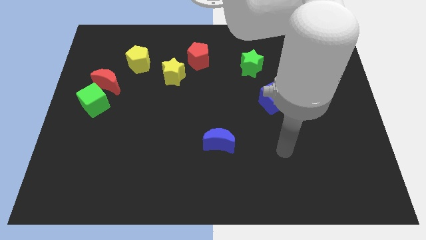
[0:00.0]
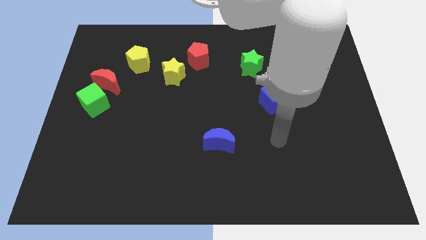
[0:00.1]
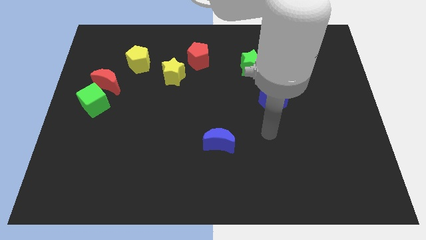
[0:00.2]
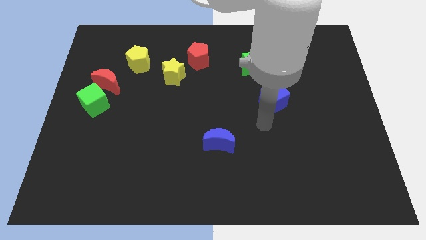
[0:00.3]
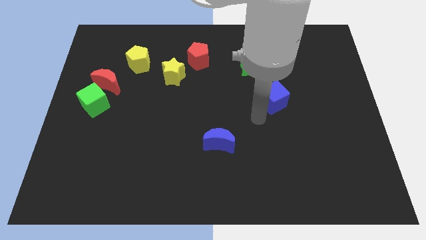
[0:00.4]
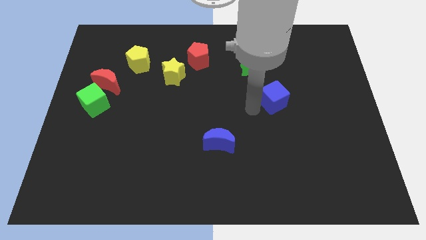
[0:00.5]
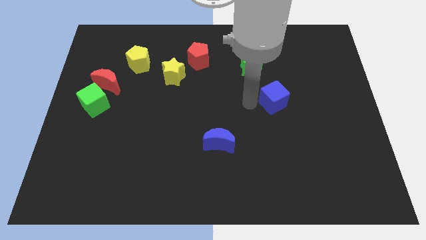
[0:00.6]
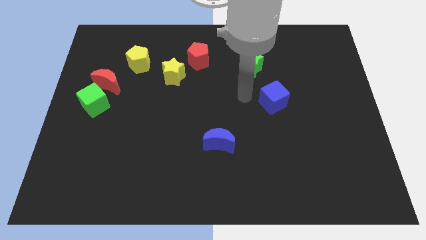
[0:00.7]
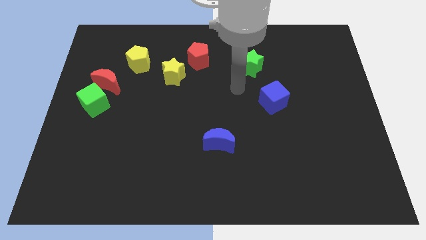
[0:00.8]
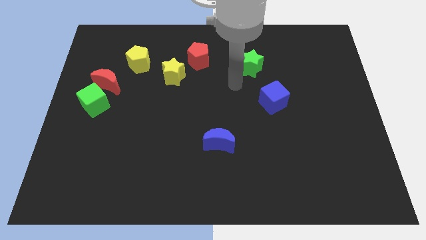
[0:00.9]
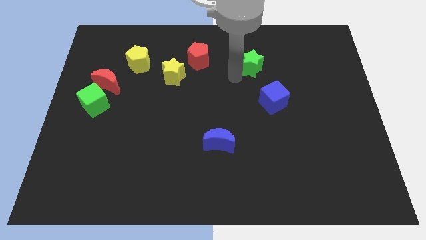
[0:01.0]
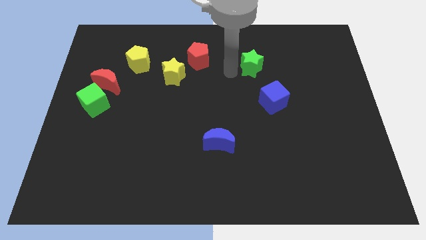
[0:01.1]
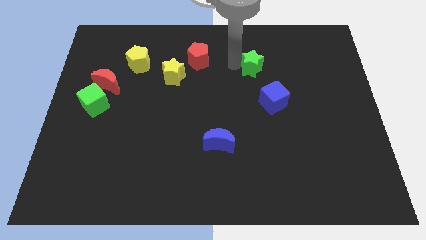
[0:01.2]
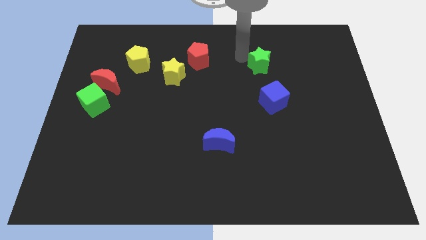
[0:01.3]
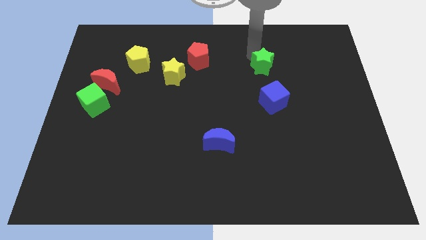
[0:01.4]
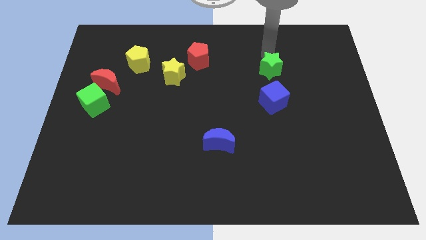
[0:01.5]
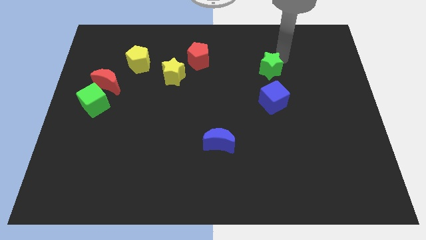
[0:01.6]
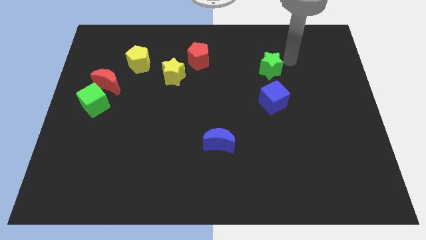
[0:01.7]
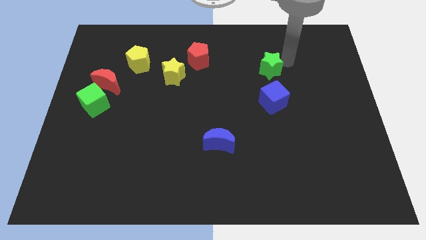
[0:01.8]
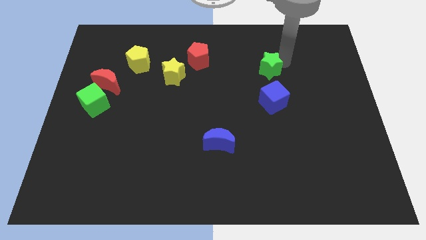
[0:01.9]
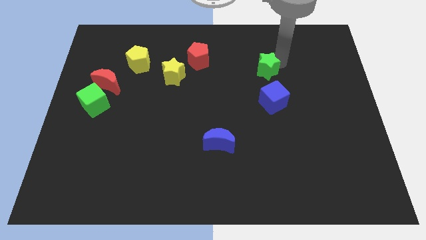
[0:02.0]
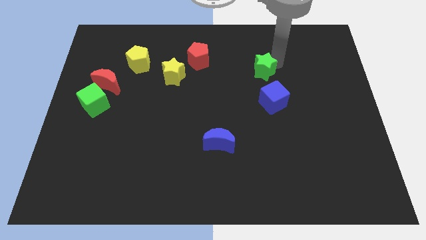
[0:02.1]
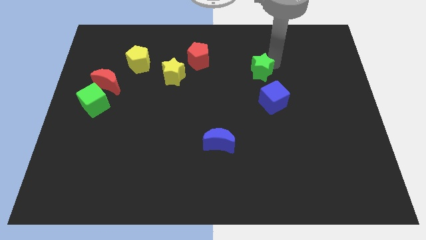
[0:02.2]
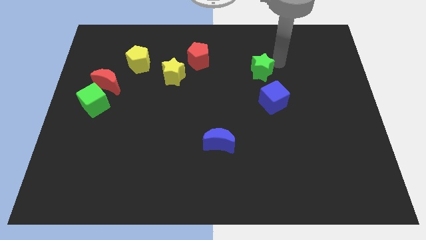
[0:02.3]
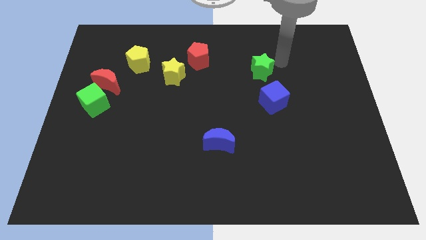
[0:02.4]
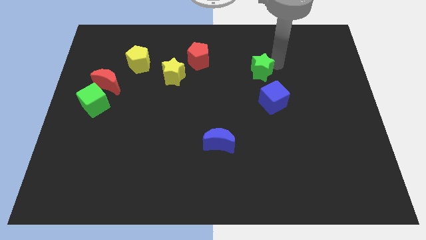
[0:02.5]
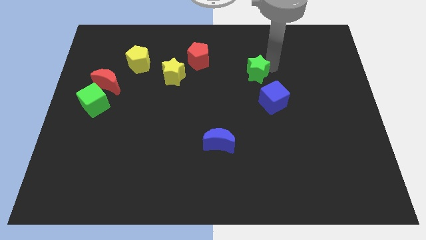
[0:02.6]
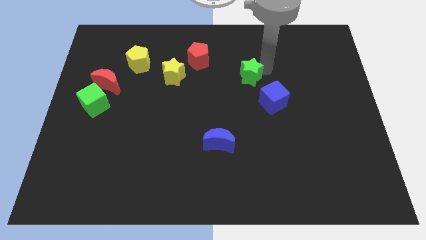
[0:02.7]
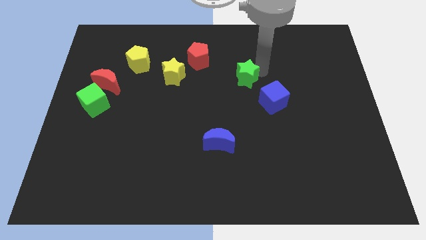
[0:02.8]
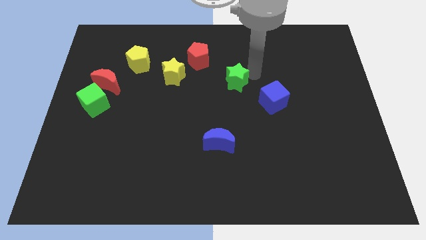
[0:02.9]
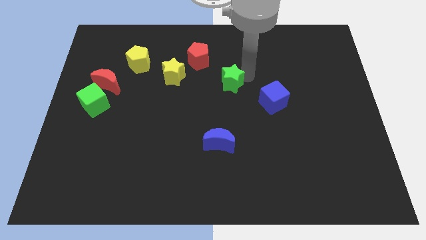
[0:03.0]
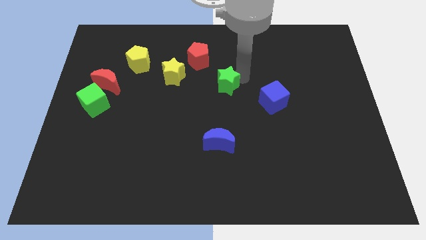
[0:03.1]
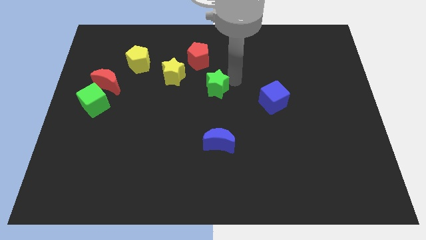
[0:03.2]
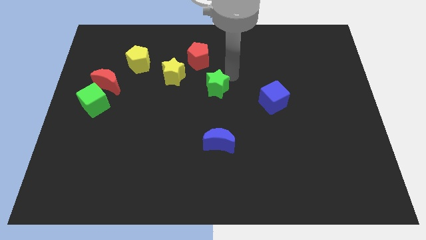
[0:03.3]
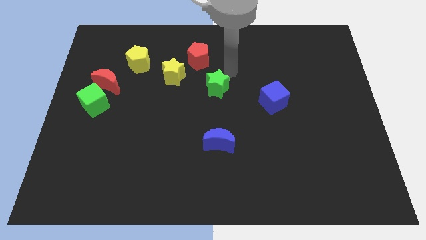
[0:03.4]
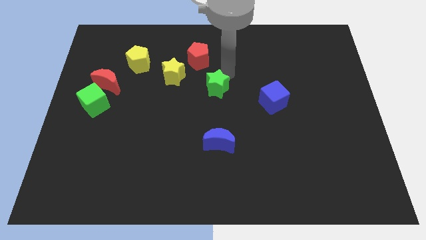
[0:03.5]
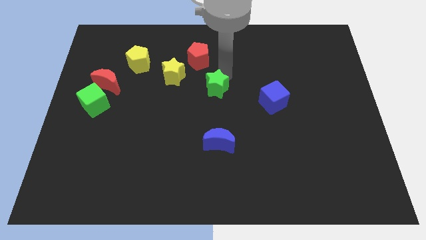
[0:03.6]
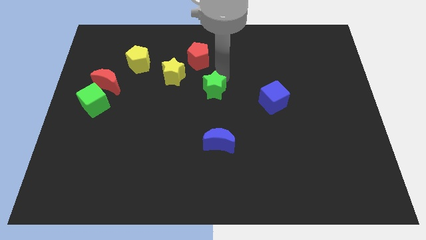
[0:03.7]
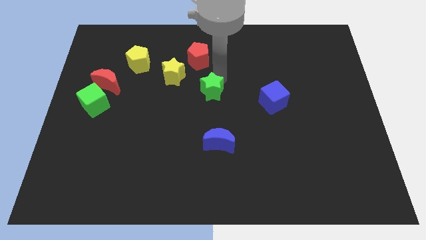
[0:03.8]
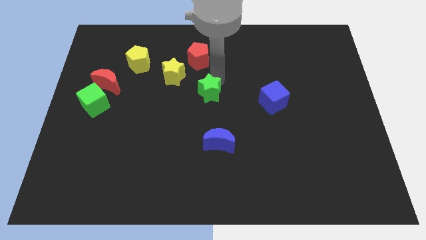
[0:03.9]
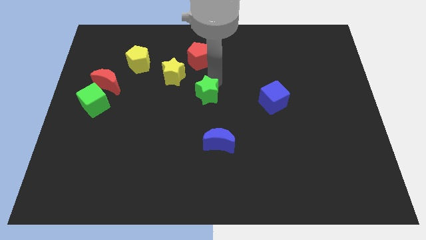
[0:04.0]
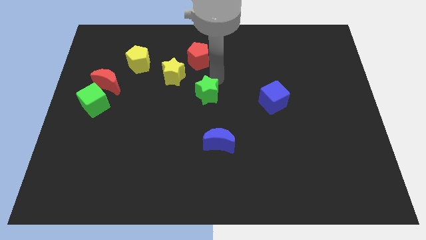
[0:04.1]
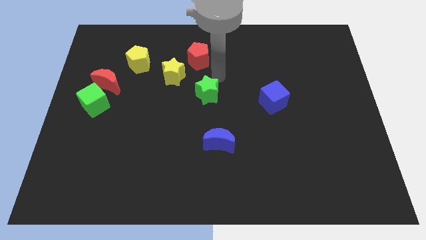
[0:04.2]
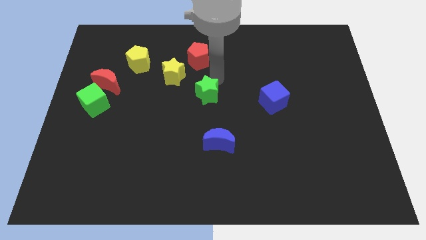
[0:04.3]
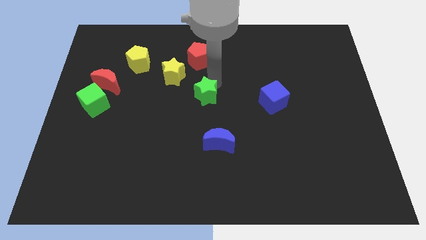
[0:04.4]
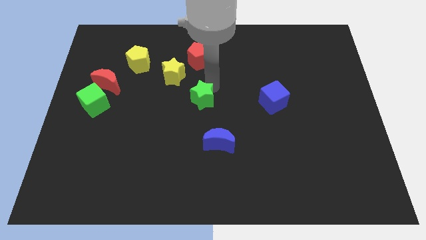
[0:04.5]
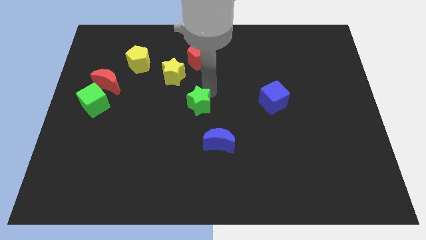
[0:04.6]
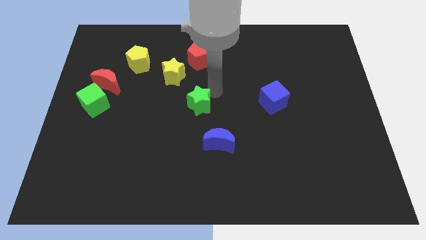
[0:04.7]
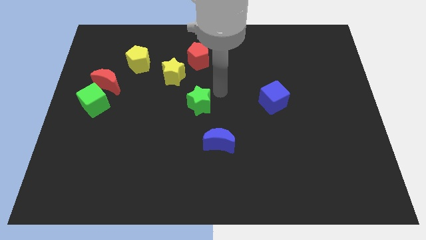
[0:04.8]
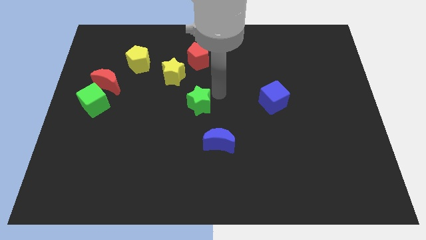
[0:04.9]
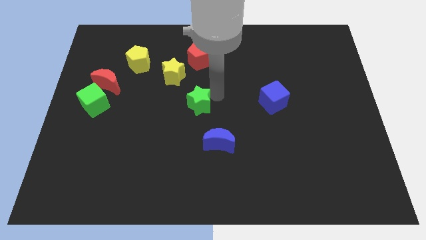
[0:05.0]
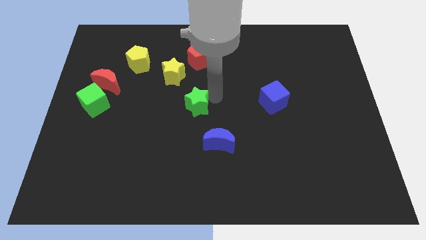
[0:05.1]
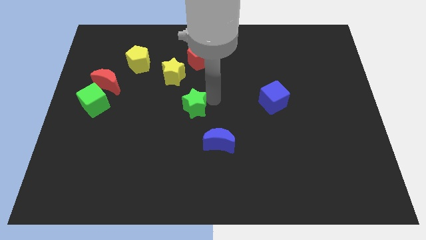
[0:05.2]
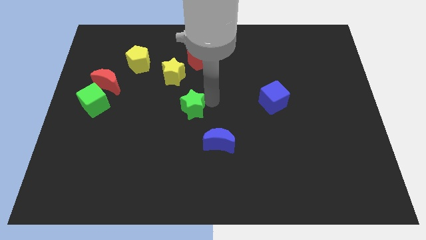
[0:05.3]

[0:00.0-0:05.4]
move the green star downwards and to the left

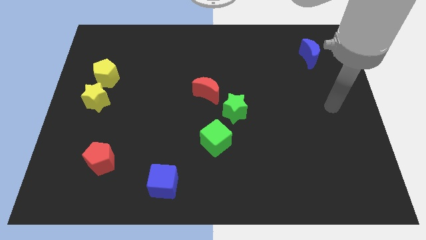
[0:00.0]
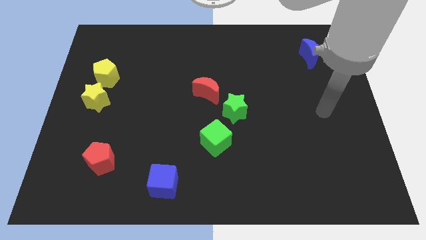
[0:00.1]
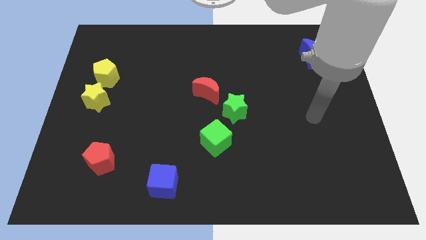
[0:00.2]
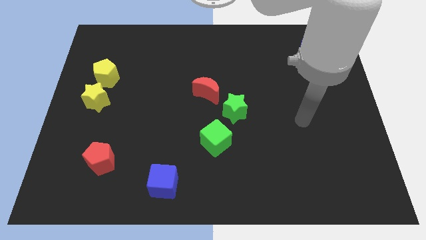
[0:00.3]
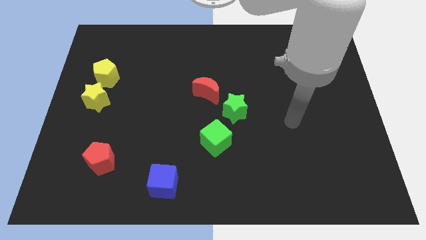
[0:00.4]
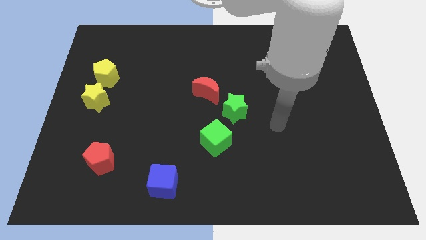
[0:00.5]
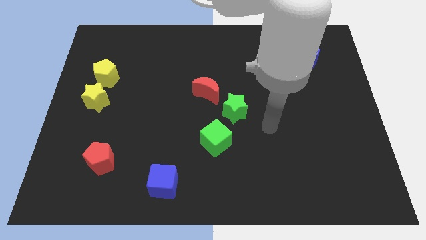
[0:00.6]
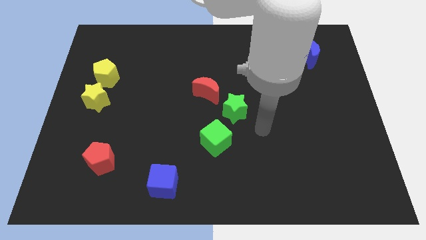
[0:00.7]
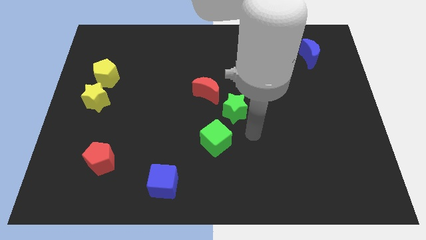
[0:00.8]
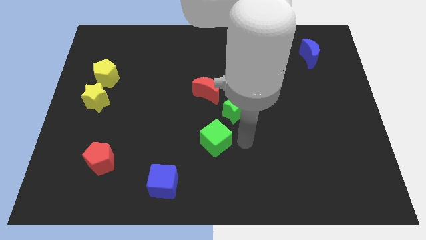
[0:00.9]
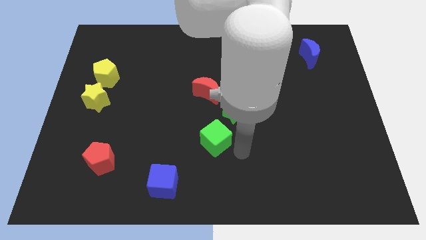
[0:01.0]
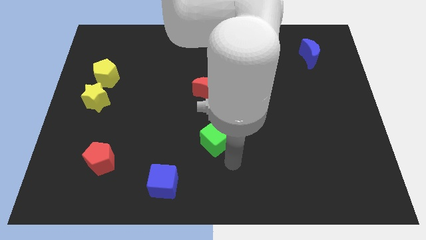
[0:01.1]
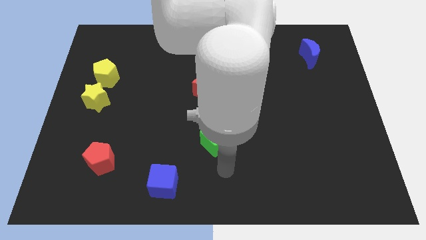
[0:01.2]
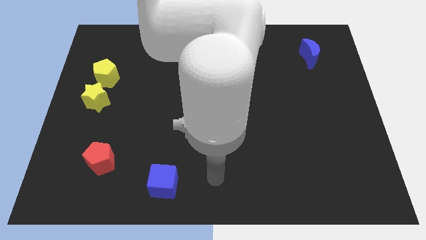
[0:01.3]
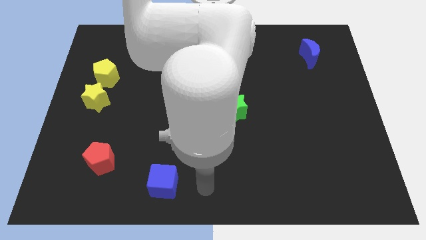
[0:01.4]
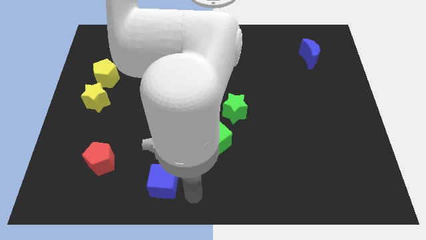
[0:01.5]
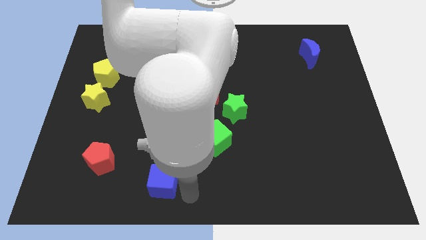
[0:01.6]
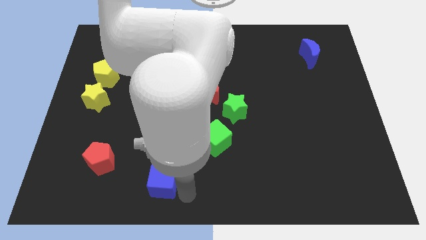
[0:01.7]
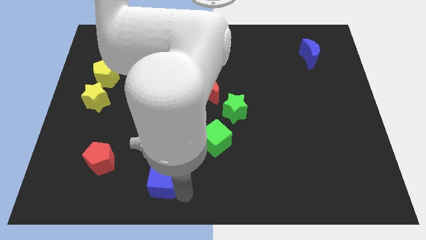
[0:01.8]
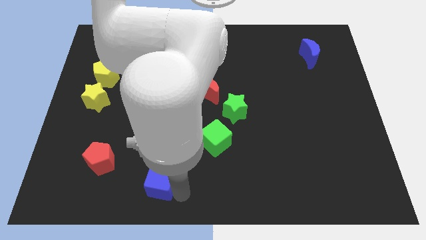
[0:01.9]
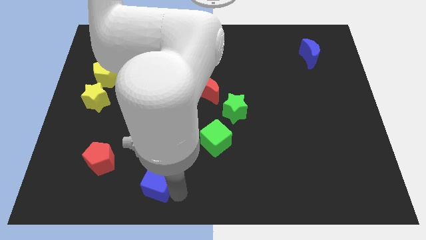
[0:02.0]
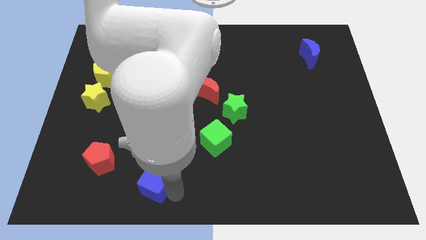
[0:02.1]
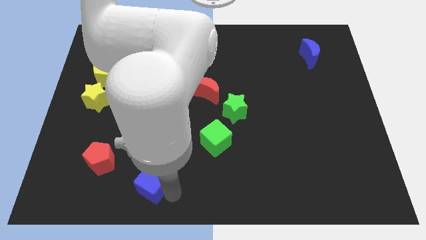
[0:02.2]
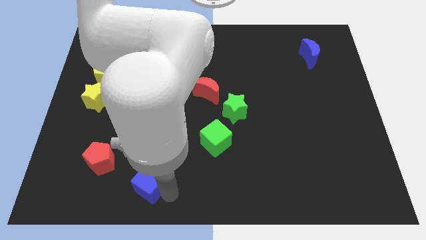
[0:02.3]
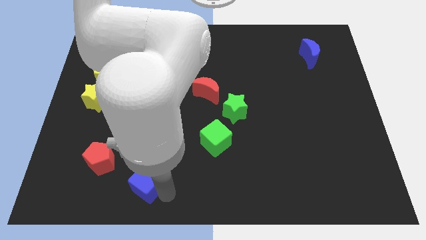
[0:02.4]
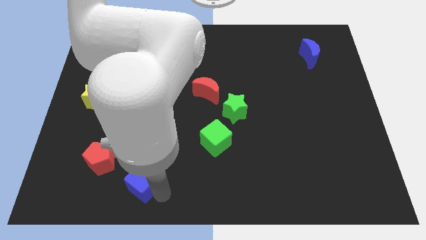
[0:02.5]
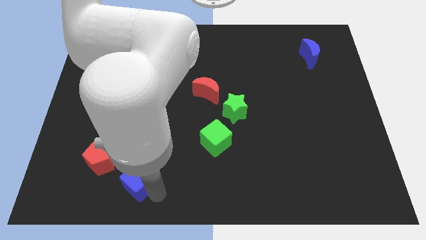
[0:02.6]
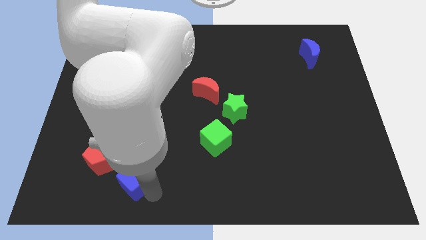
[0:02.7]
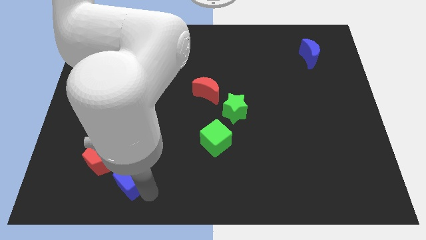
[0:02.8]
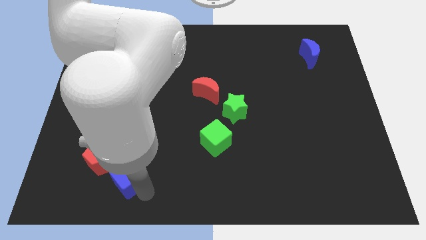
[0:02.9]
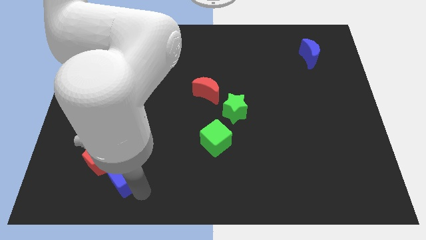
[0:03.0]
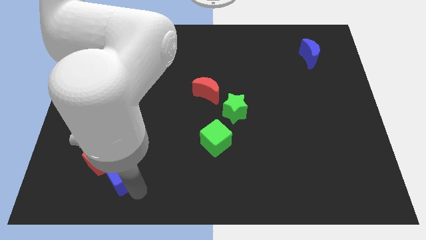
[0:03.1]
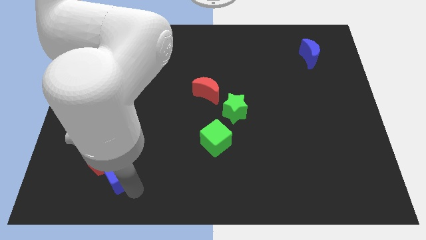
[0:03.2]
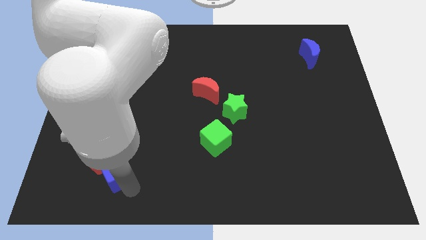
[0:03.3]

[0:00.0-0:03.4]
slightly slide the blue cube up and left diagonally

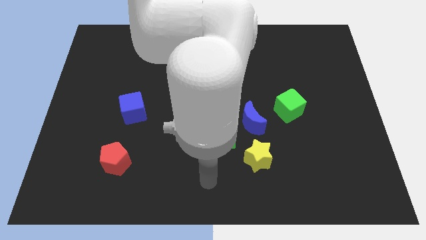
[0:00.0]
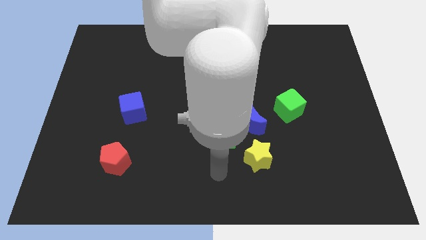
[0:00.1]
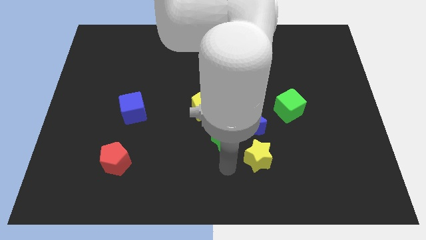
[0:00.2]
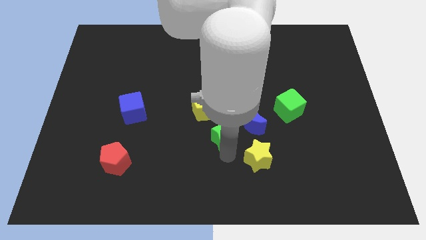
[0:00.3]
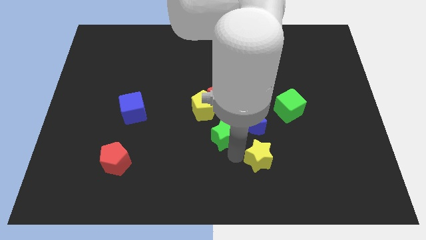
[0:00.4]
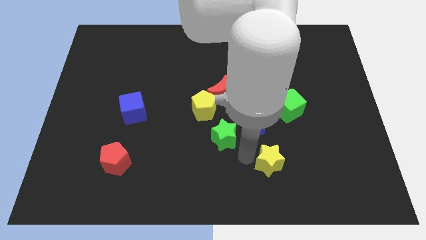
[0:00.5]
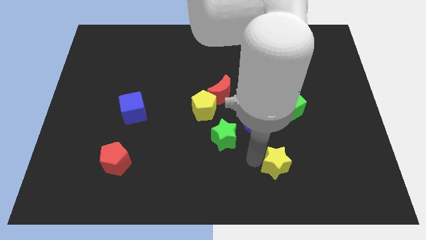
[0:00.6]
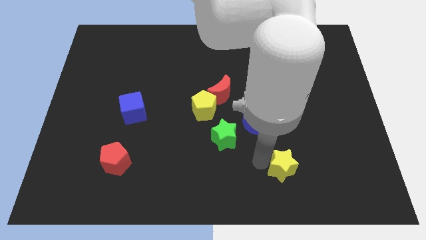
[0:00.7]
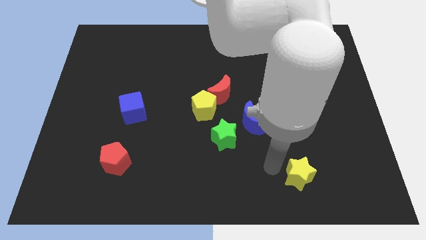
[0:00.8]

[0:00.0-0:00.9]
slightly slide the yellow star right
